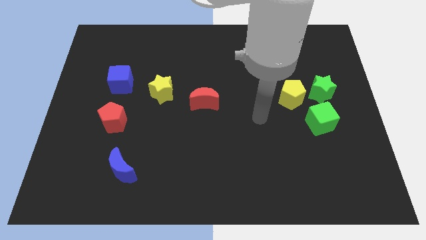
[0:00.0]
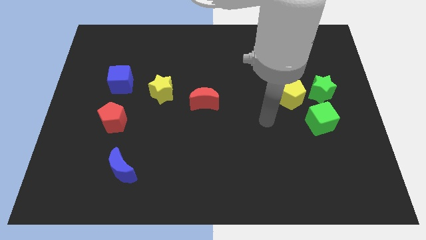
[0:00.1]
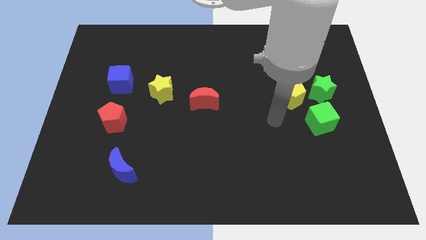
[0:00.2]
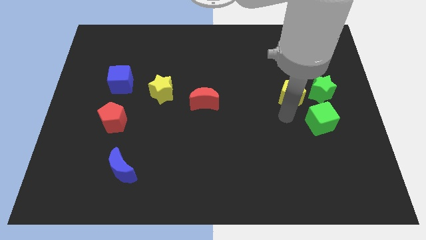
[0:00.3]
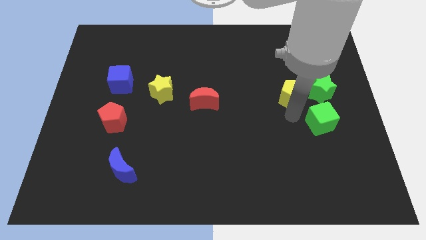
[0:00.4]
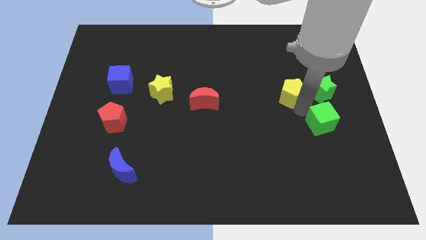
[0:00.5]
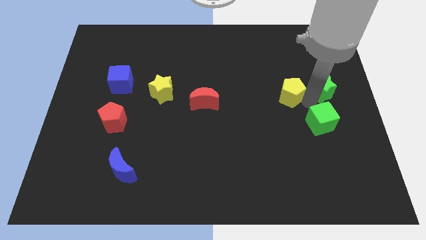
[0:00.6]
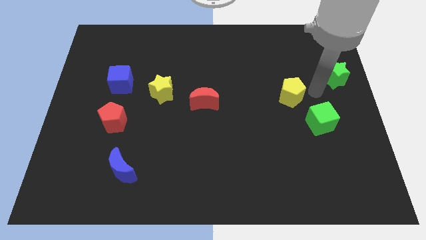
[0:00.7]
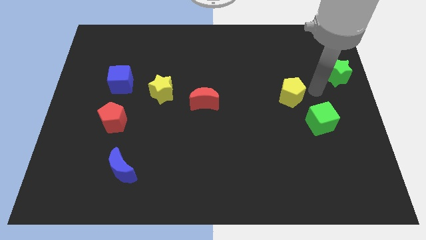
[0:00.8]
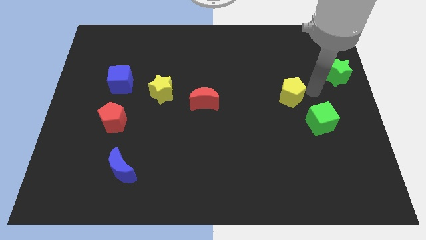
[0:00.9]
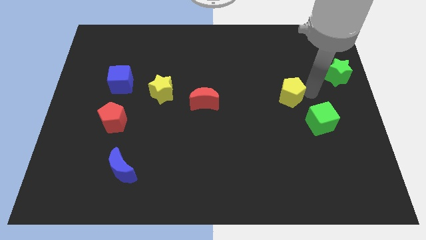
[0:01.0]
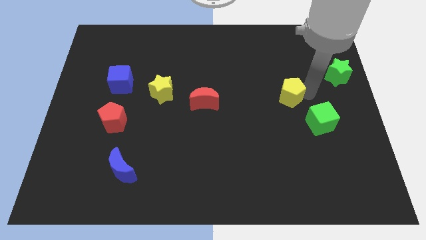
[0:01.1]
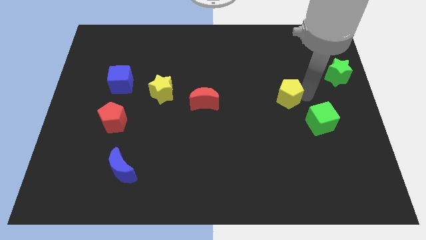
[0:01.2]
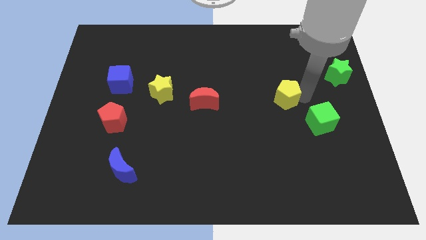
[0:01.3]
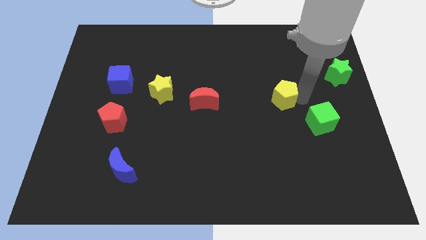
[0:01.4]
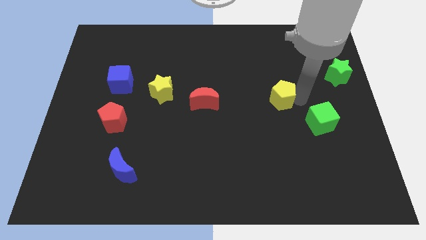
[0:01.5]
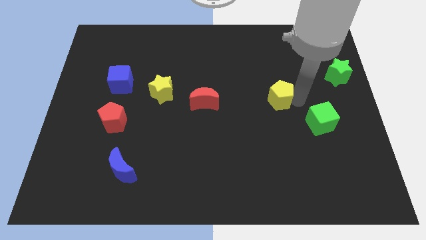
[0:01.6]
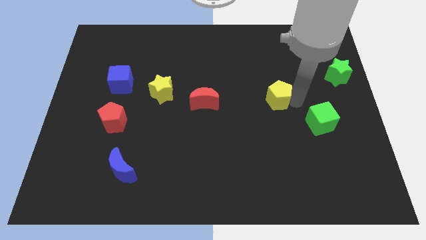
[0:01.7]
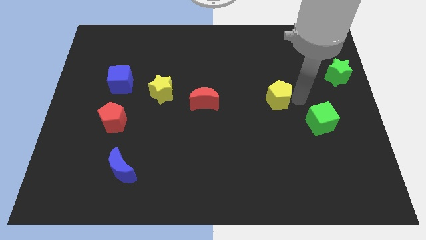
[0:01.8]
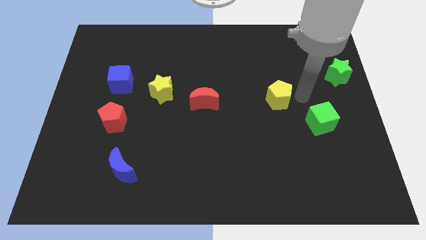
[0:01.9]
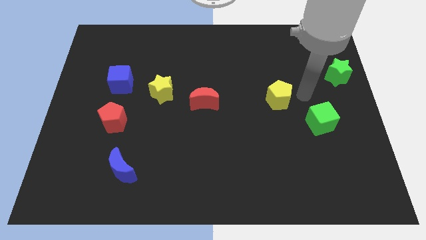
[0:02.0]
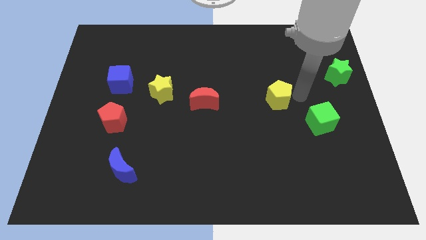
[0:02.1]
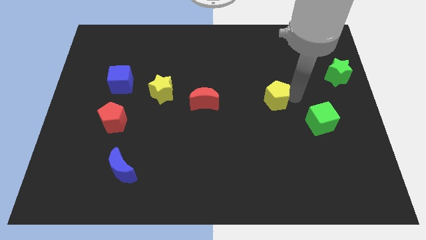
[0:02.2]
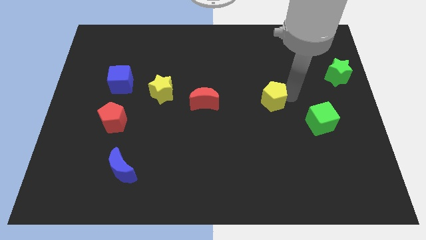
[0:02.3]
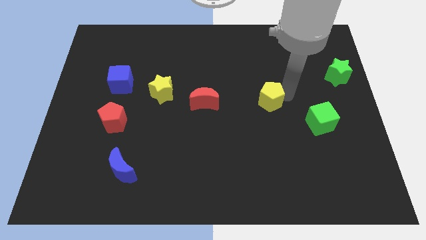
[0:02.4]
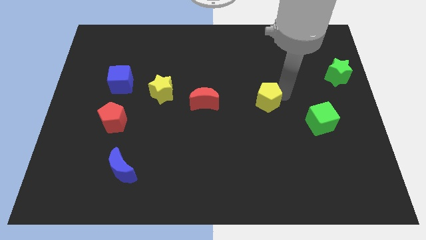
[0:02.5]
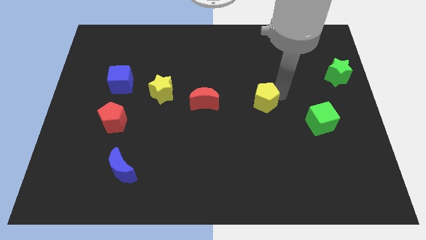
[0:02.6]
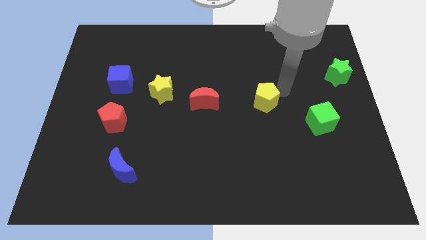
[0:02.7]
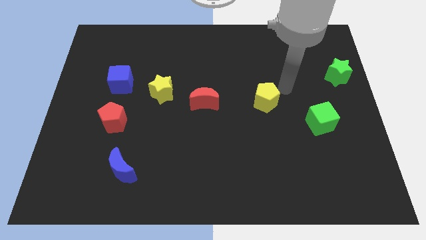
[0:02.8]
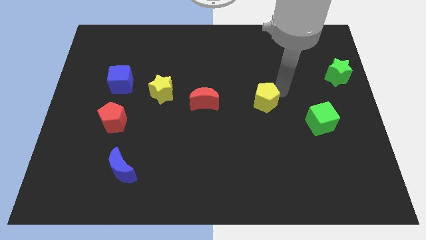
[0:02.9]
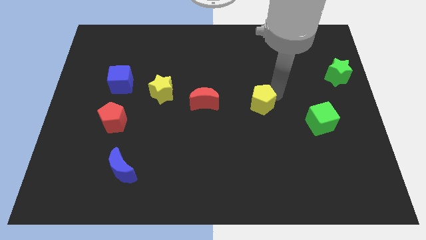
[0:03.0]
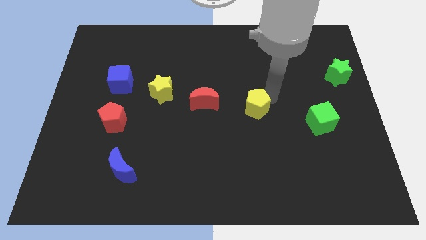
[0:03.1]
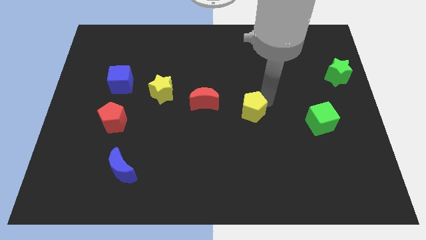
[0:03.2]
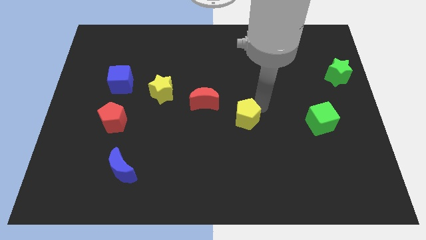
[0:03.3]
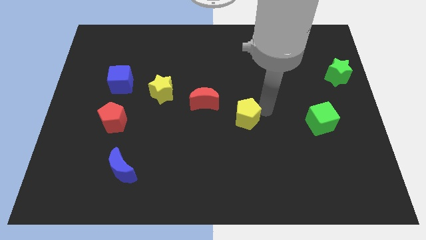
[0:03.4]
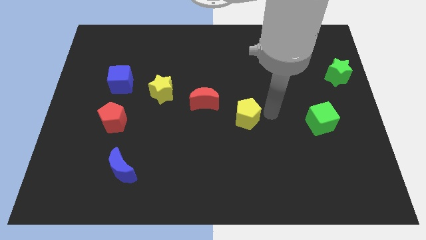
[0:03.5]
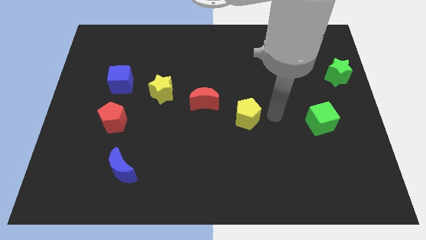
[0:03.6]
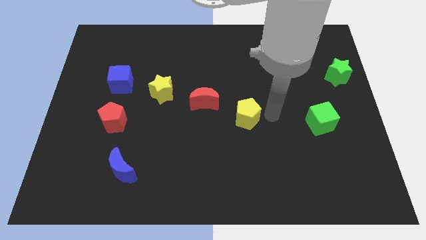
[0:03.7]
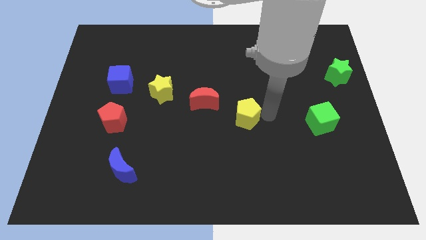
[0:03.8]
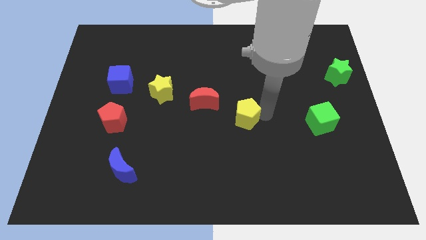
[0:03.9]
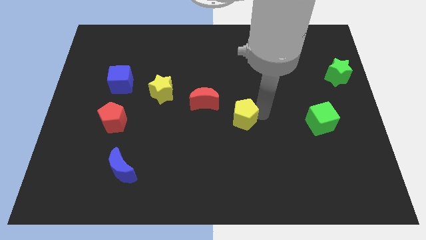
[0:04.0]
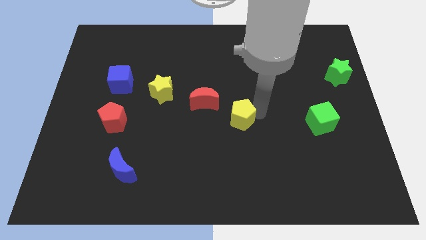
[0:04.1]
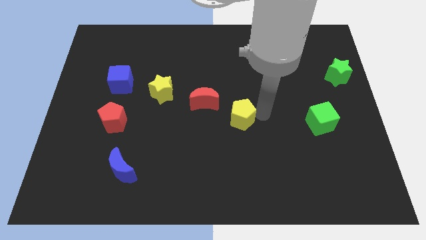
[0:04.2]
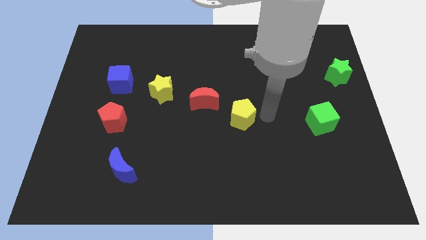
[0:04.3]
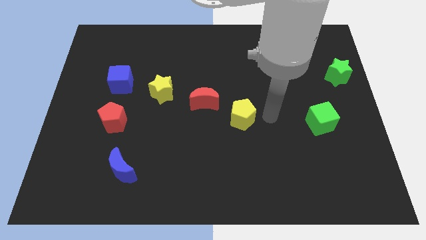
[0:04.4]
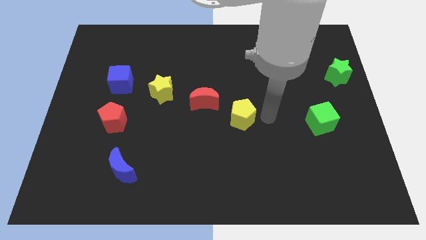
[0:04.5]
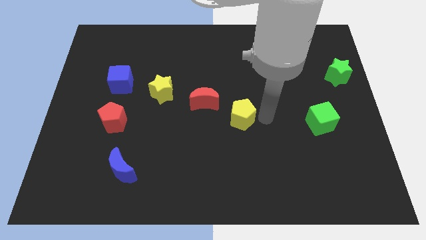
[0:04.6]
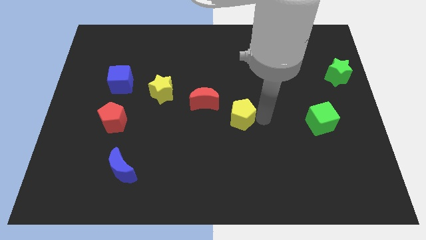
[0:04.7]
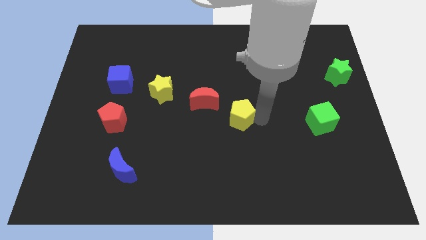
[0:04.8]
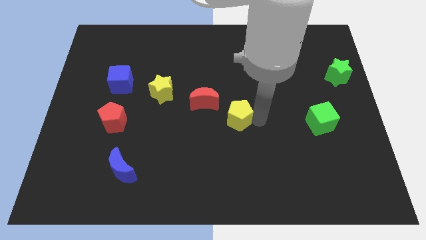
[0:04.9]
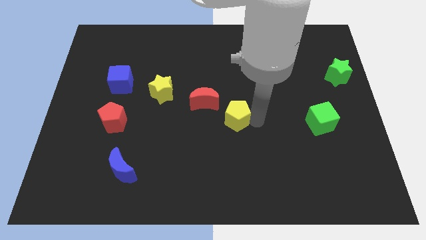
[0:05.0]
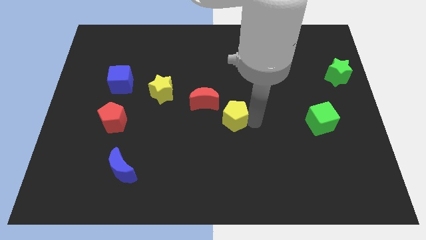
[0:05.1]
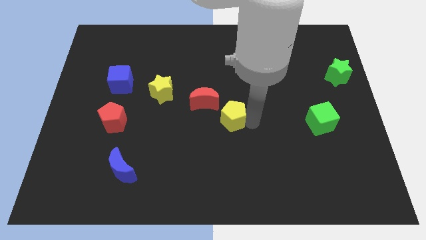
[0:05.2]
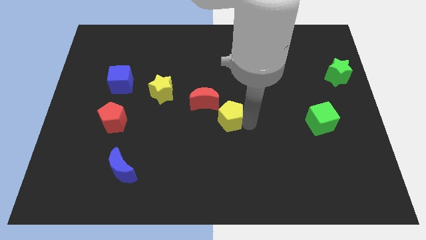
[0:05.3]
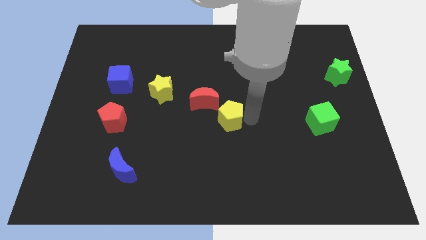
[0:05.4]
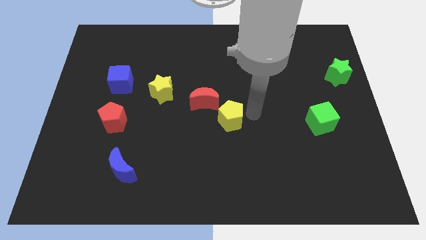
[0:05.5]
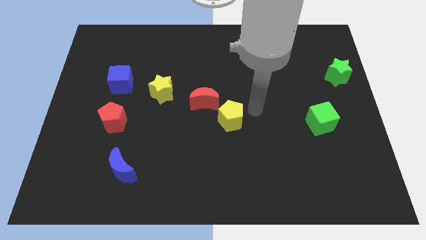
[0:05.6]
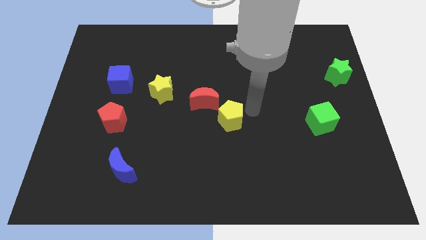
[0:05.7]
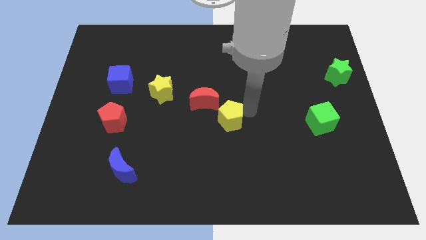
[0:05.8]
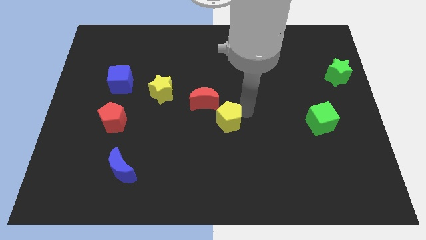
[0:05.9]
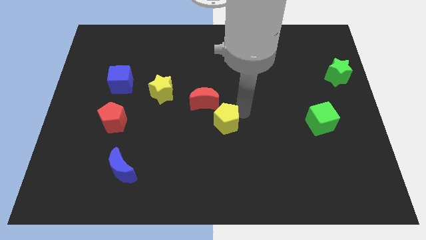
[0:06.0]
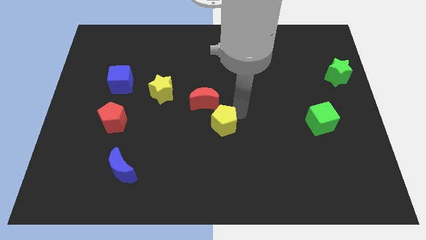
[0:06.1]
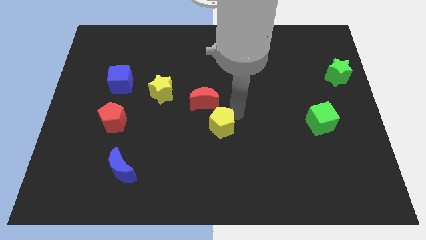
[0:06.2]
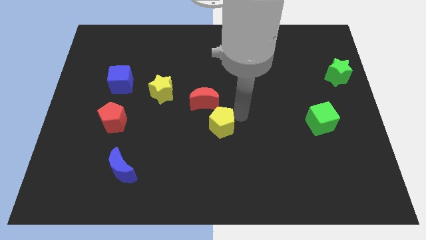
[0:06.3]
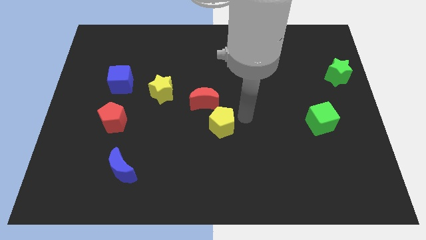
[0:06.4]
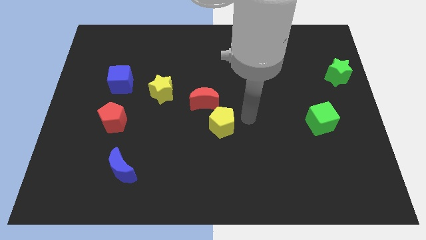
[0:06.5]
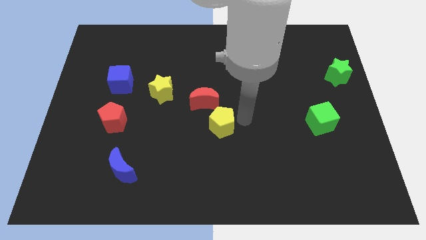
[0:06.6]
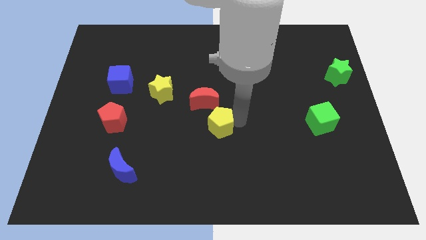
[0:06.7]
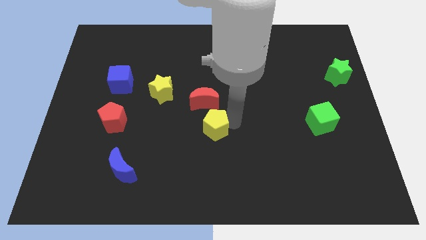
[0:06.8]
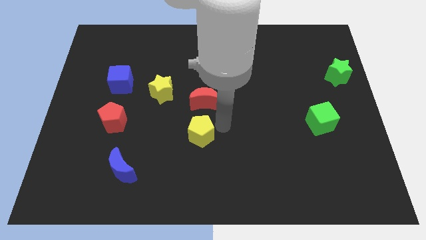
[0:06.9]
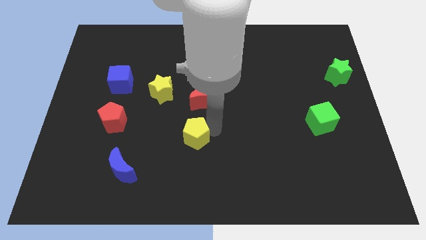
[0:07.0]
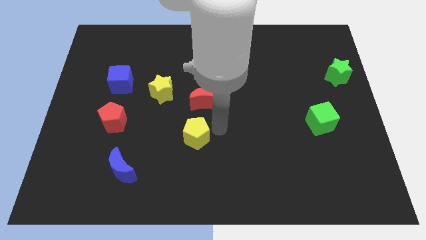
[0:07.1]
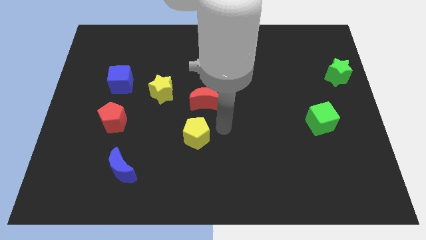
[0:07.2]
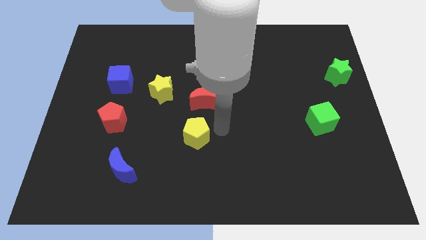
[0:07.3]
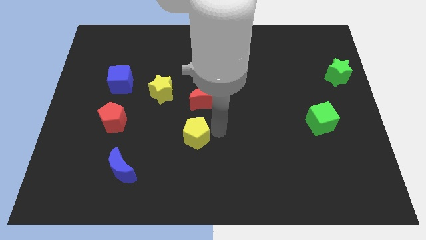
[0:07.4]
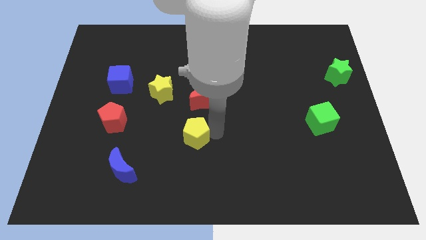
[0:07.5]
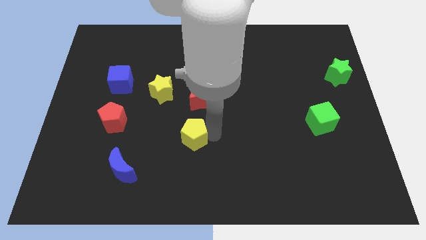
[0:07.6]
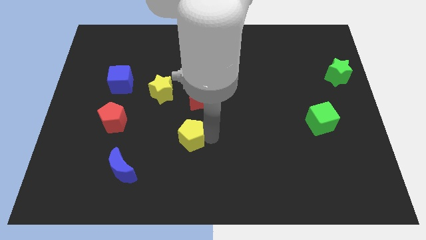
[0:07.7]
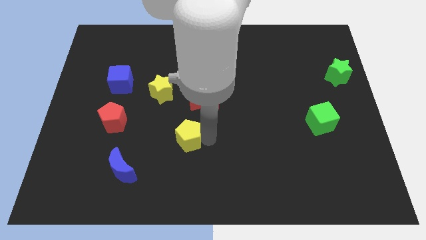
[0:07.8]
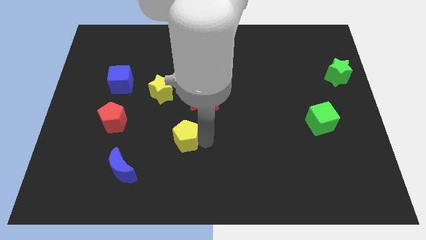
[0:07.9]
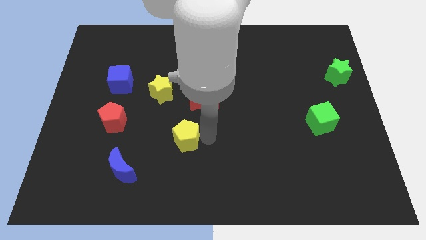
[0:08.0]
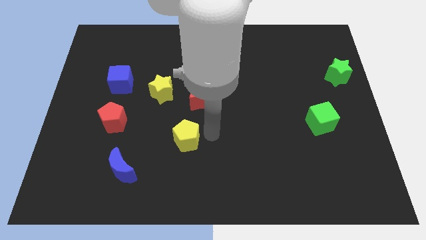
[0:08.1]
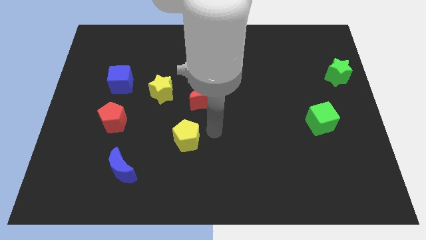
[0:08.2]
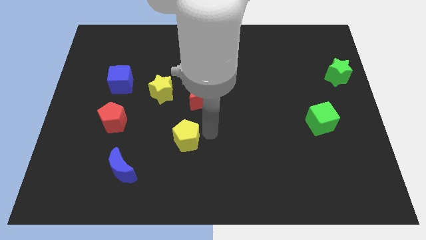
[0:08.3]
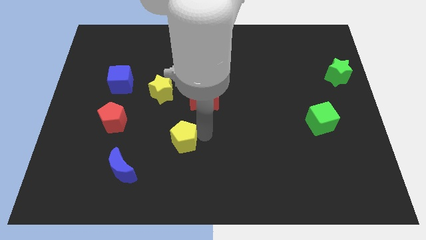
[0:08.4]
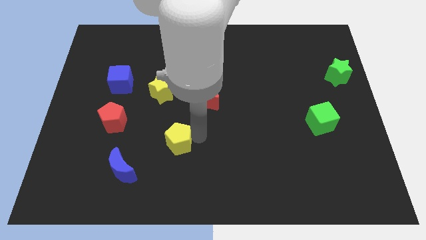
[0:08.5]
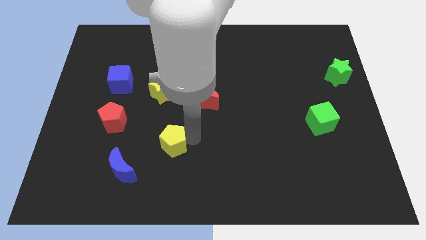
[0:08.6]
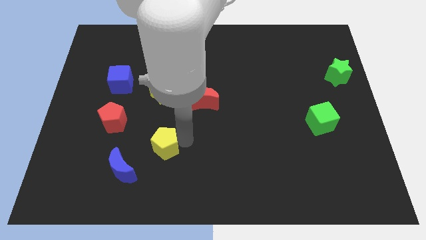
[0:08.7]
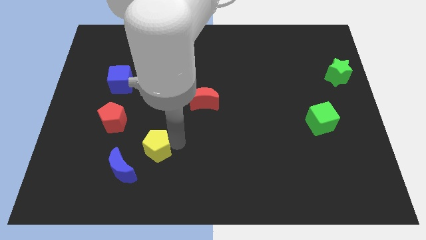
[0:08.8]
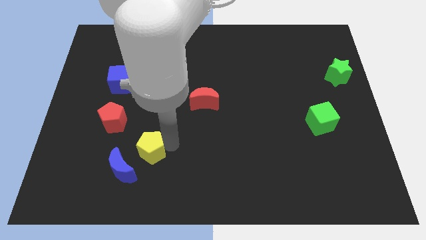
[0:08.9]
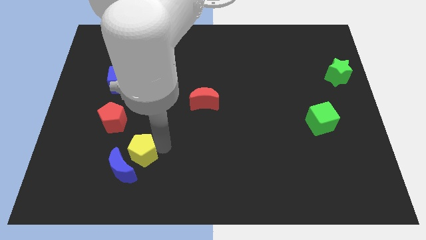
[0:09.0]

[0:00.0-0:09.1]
slide the yellow pentagon to the blue moon
